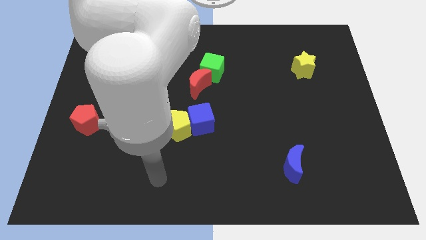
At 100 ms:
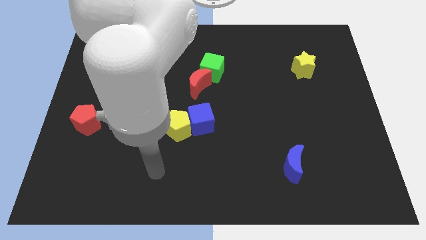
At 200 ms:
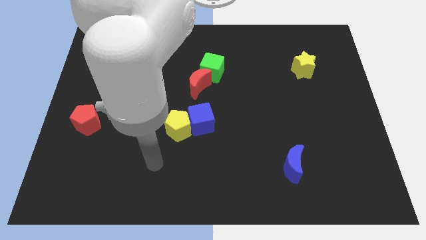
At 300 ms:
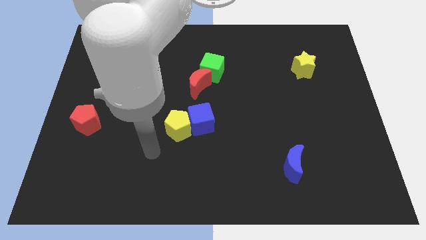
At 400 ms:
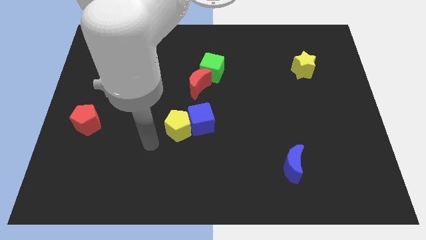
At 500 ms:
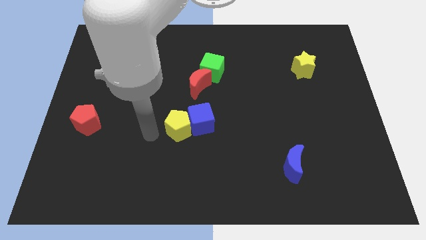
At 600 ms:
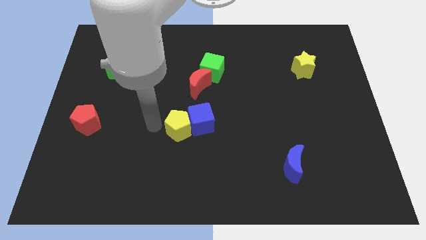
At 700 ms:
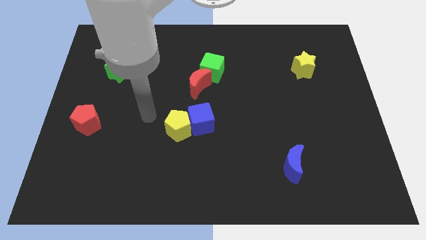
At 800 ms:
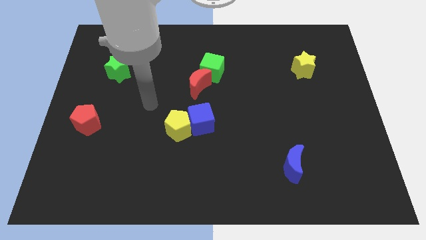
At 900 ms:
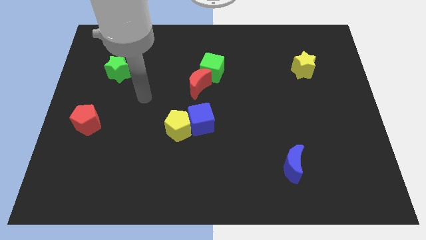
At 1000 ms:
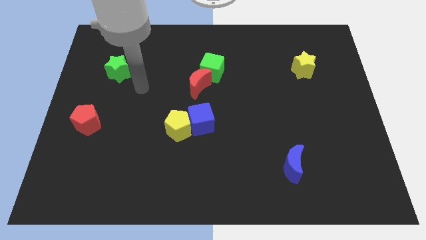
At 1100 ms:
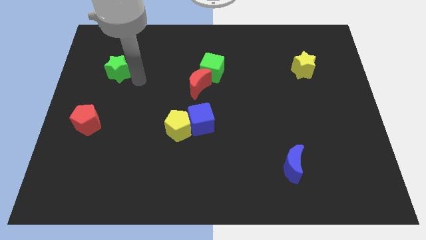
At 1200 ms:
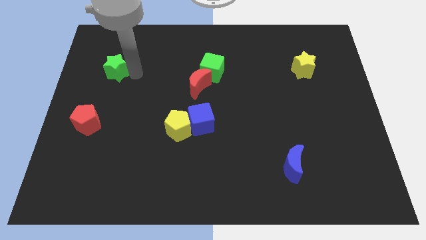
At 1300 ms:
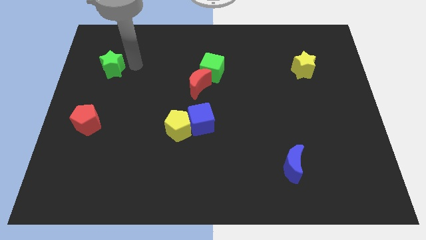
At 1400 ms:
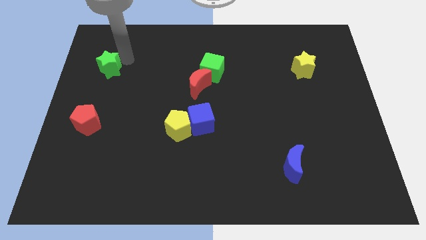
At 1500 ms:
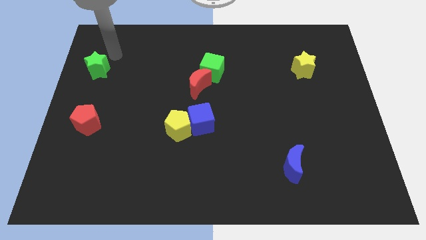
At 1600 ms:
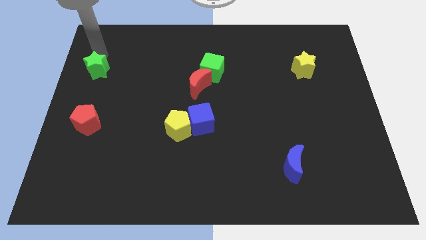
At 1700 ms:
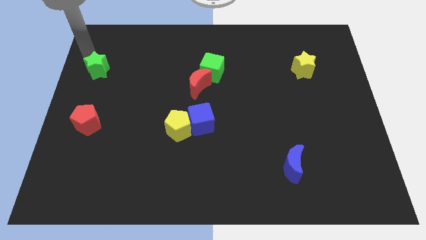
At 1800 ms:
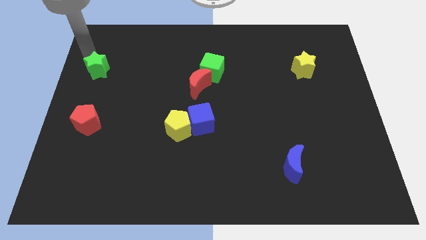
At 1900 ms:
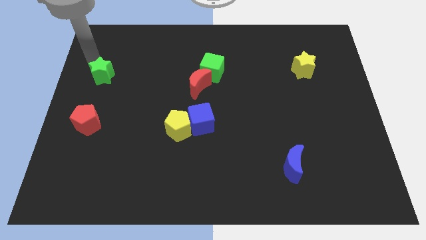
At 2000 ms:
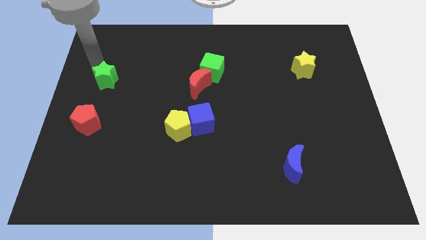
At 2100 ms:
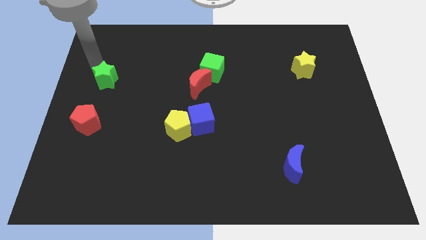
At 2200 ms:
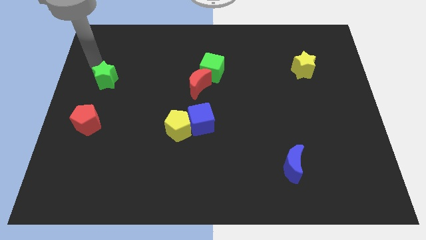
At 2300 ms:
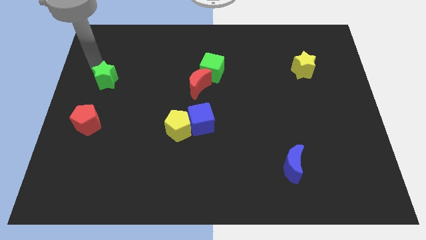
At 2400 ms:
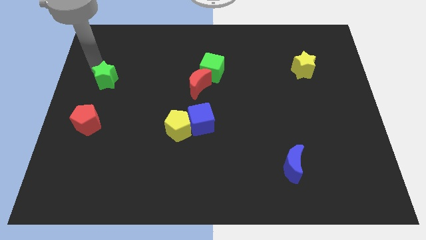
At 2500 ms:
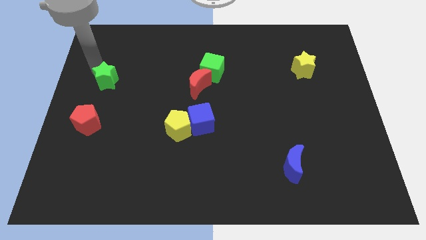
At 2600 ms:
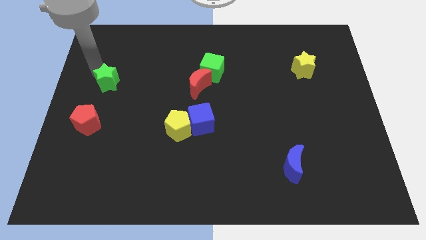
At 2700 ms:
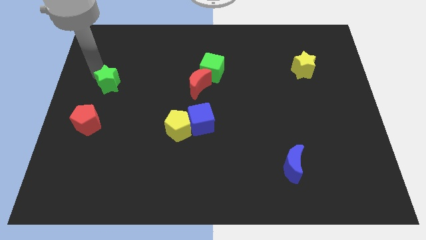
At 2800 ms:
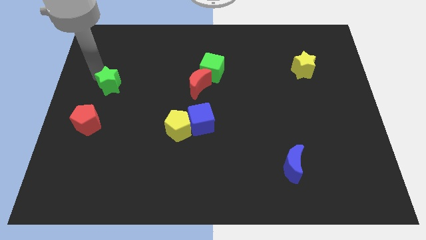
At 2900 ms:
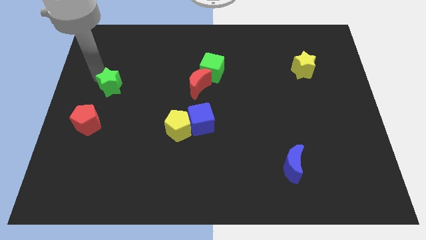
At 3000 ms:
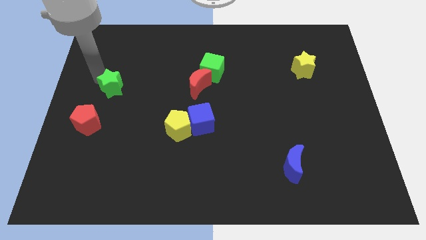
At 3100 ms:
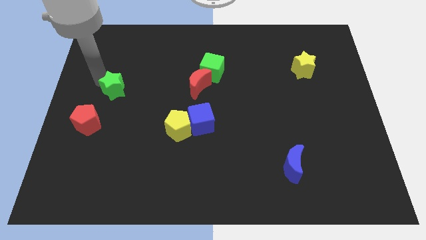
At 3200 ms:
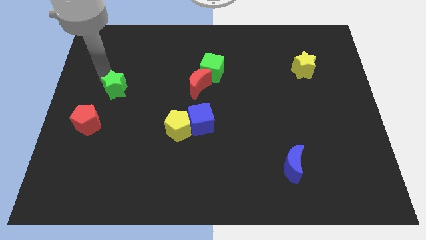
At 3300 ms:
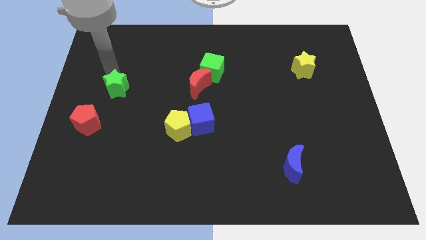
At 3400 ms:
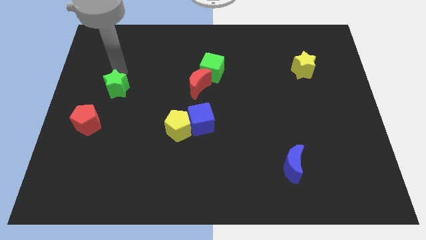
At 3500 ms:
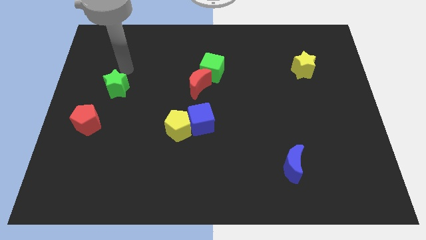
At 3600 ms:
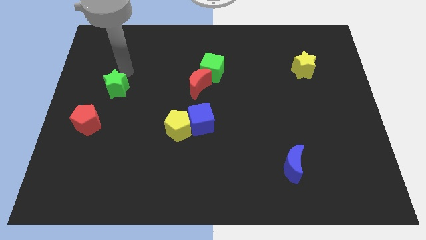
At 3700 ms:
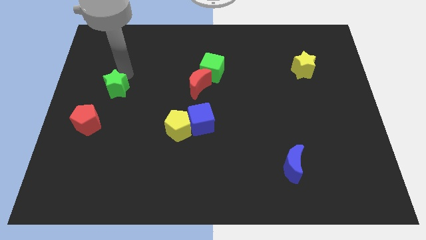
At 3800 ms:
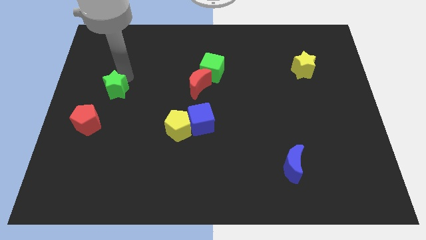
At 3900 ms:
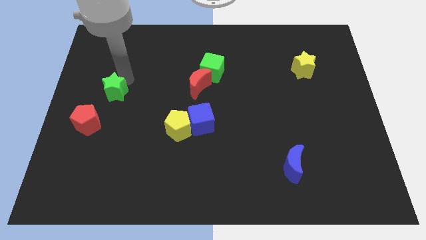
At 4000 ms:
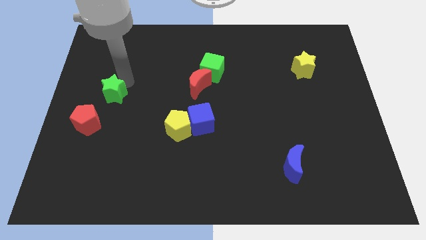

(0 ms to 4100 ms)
slightly move the green star downwards

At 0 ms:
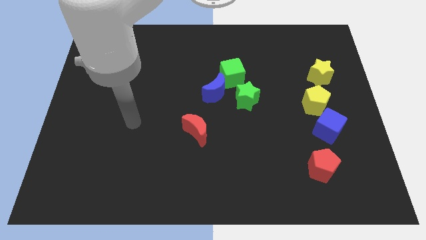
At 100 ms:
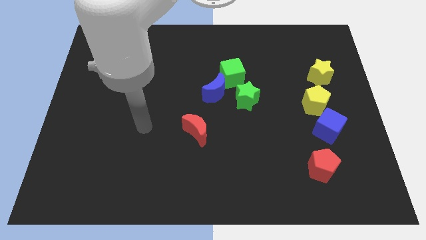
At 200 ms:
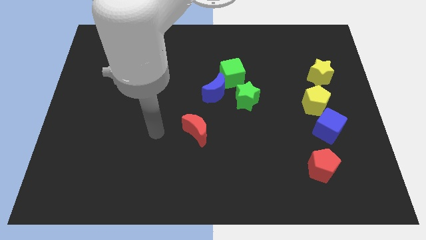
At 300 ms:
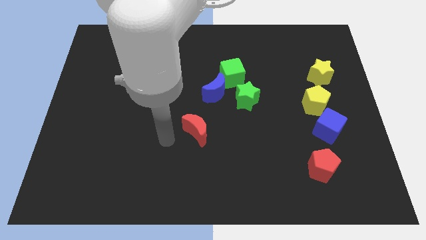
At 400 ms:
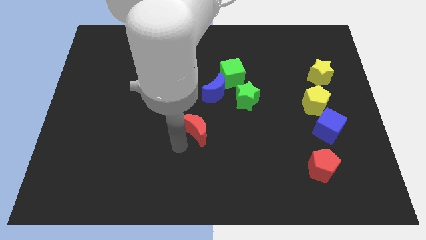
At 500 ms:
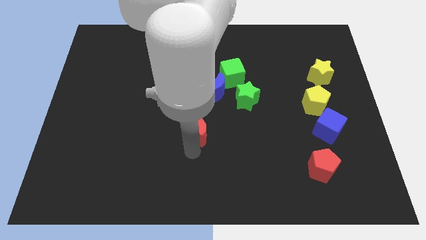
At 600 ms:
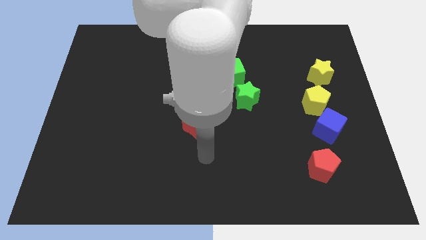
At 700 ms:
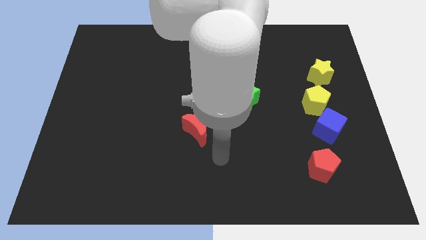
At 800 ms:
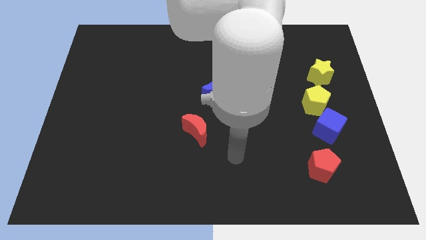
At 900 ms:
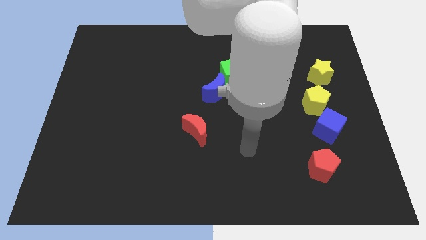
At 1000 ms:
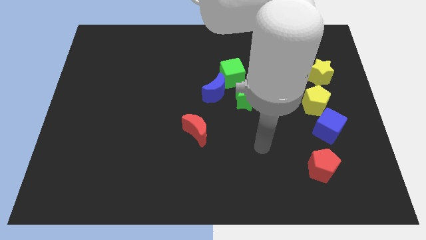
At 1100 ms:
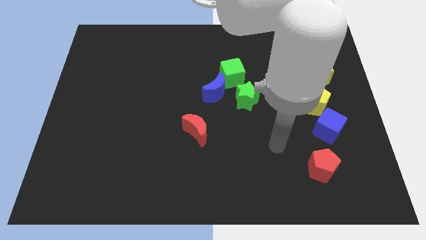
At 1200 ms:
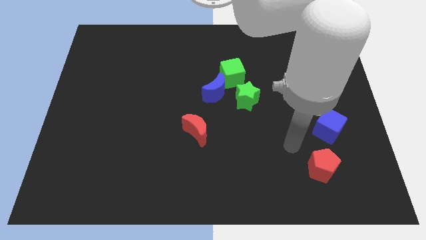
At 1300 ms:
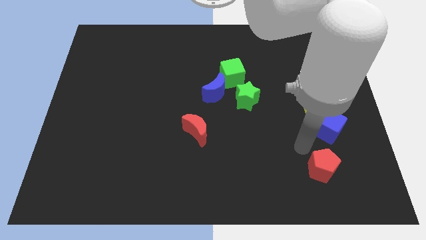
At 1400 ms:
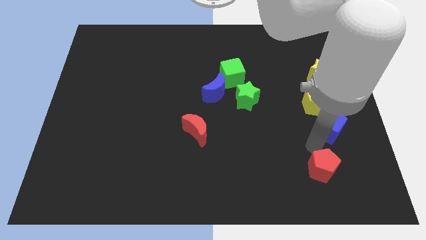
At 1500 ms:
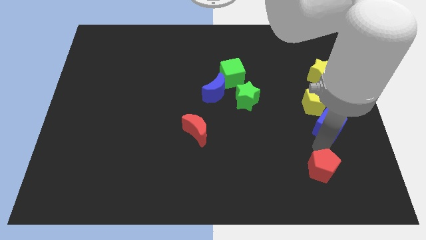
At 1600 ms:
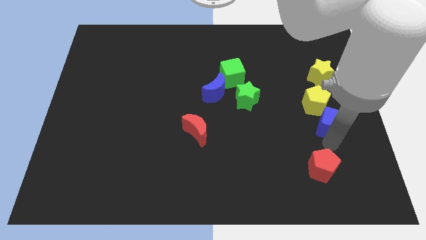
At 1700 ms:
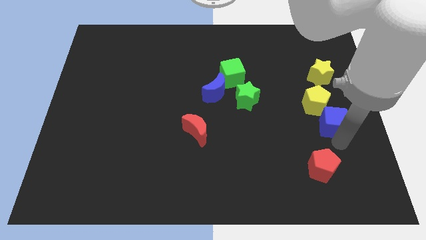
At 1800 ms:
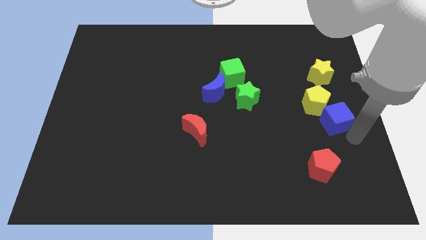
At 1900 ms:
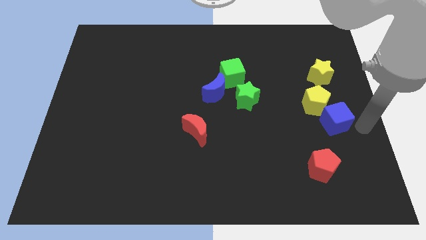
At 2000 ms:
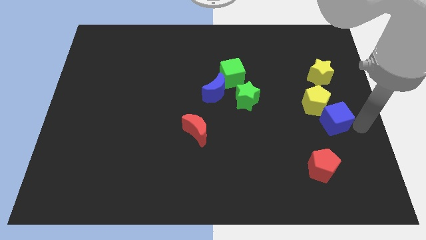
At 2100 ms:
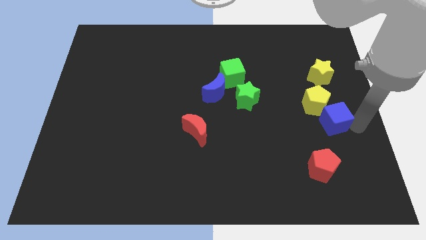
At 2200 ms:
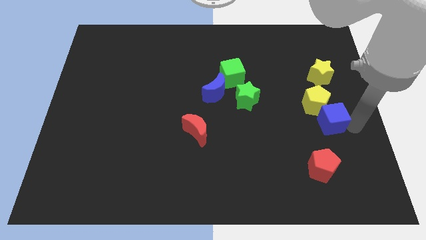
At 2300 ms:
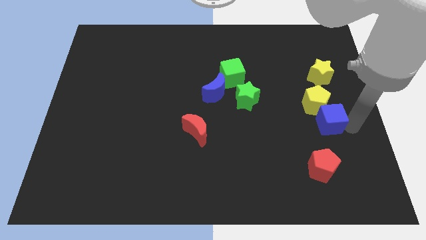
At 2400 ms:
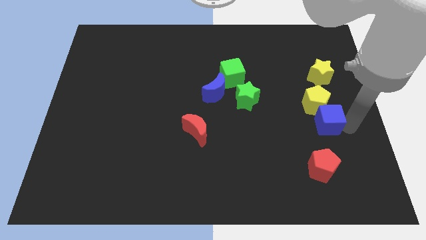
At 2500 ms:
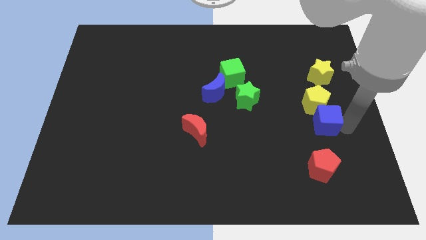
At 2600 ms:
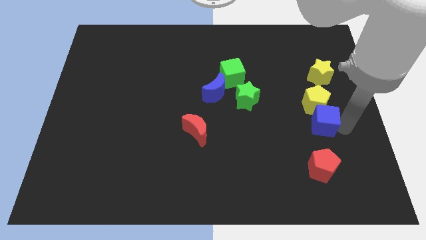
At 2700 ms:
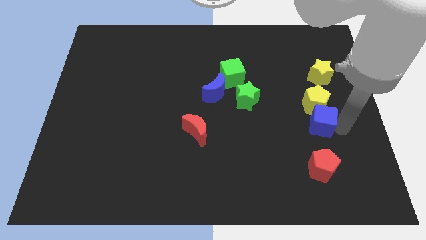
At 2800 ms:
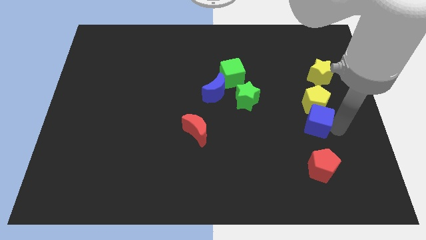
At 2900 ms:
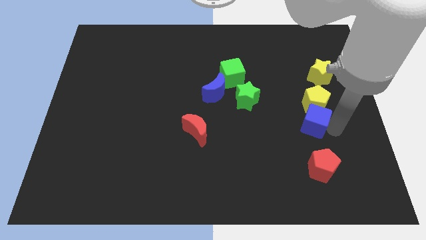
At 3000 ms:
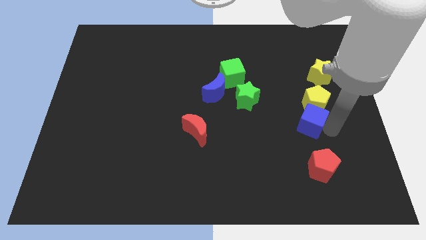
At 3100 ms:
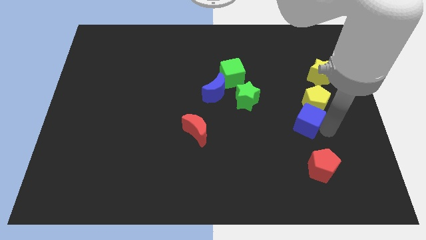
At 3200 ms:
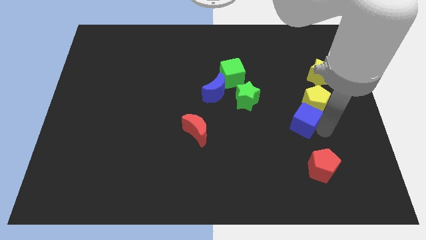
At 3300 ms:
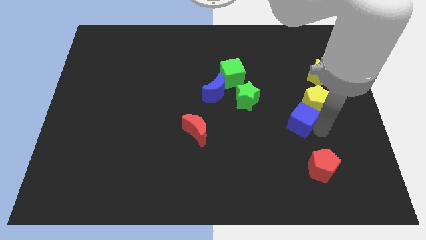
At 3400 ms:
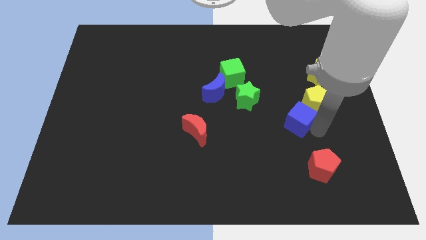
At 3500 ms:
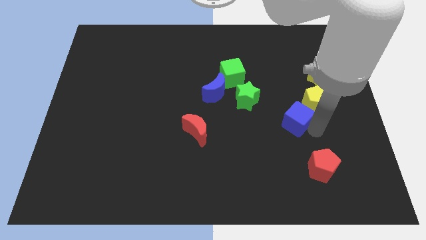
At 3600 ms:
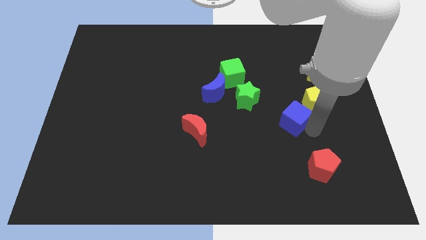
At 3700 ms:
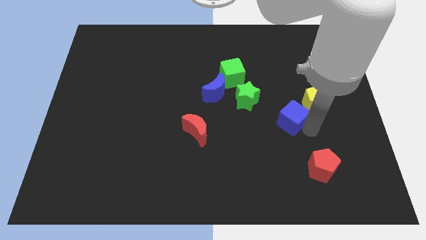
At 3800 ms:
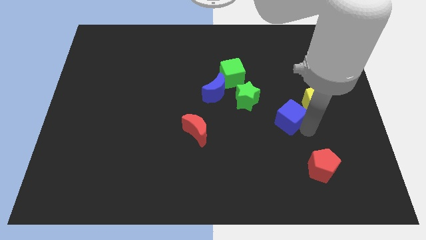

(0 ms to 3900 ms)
slide the blue cube up and to the left a bit

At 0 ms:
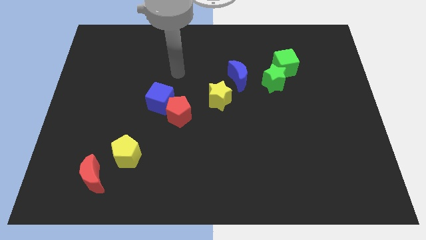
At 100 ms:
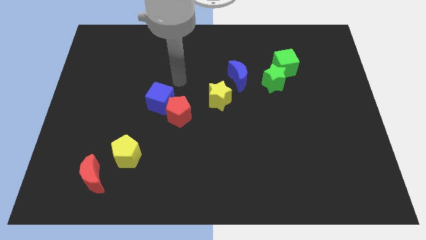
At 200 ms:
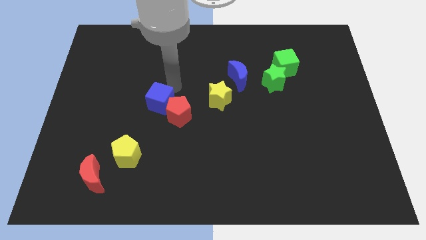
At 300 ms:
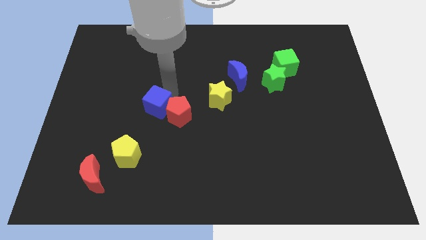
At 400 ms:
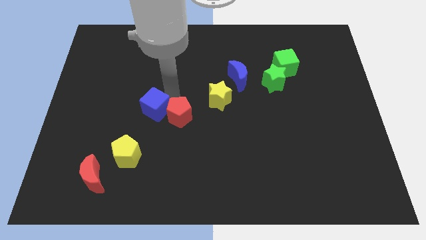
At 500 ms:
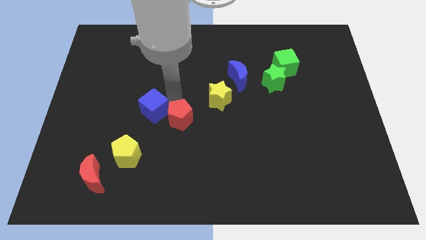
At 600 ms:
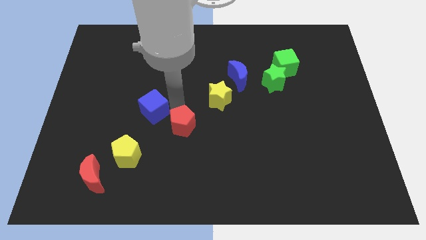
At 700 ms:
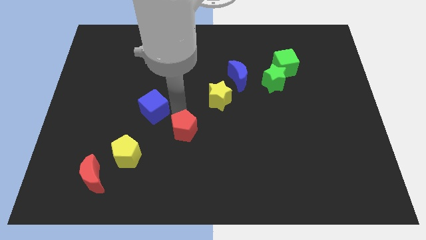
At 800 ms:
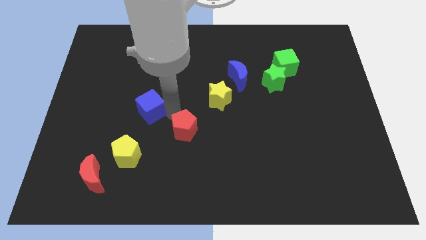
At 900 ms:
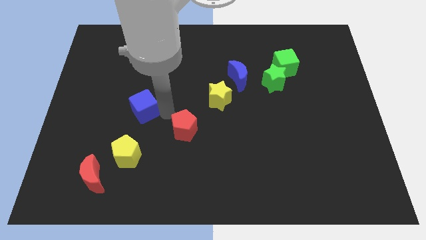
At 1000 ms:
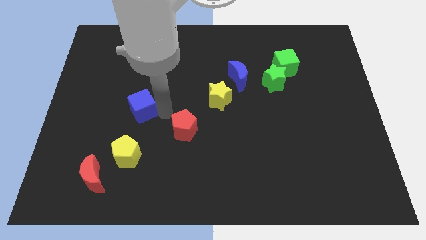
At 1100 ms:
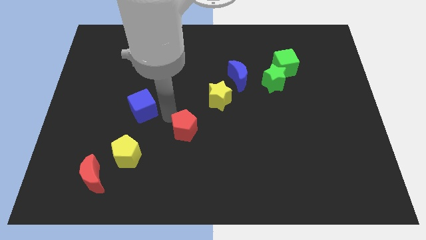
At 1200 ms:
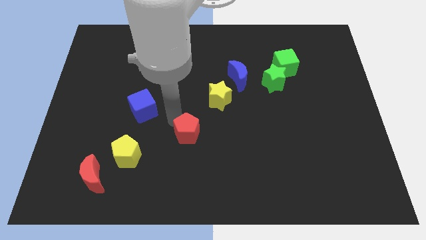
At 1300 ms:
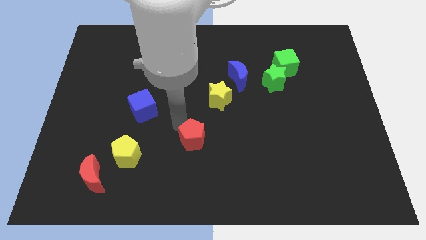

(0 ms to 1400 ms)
slightly push the red pentagon downwards and then right
